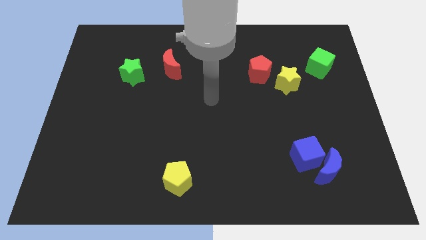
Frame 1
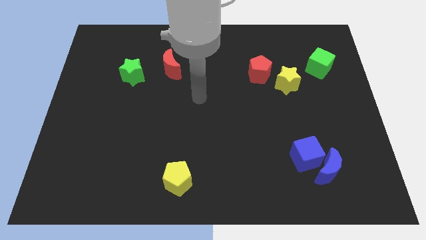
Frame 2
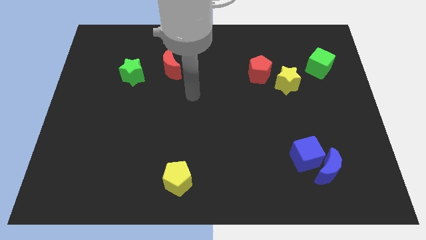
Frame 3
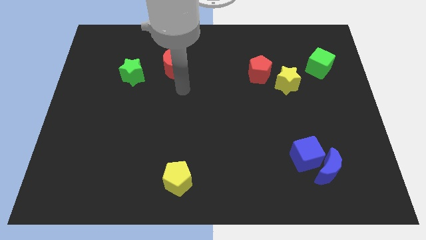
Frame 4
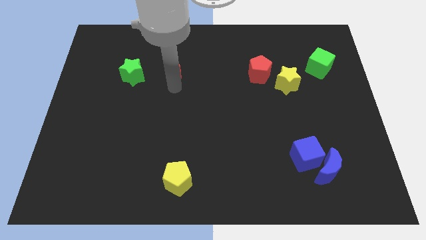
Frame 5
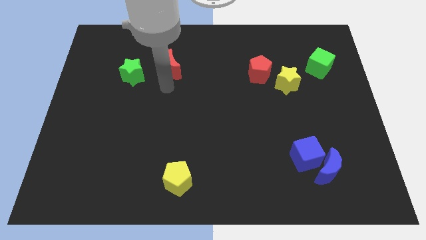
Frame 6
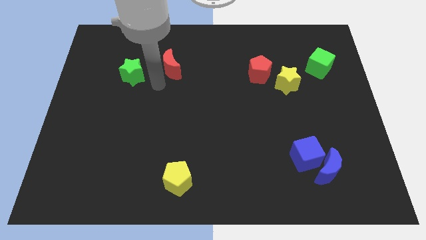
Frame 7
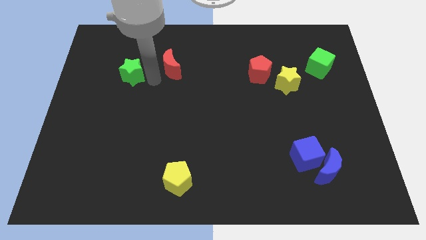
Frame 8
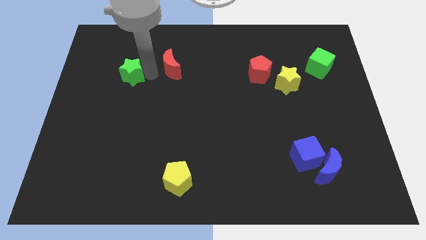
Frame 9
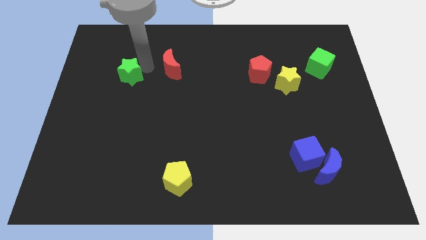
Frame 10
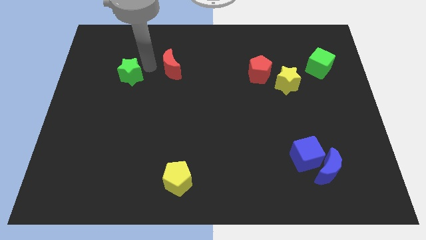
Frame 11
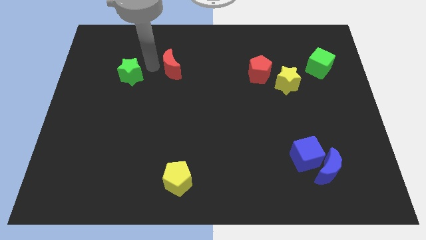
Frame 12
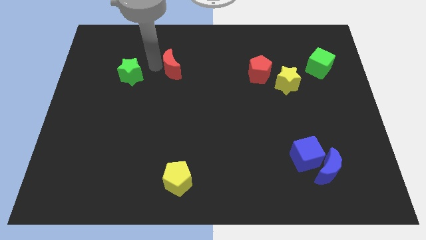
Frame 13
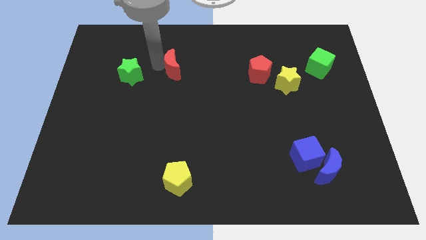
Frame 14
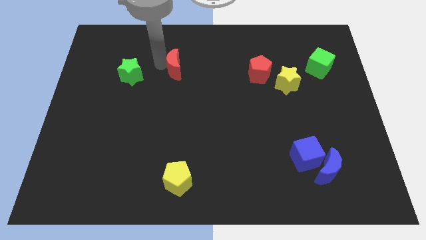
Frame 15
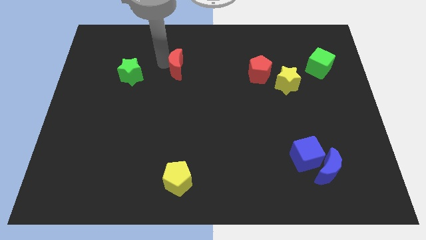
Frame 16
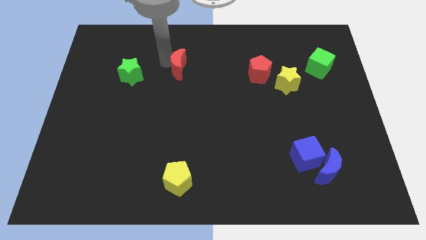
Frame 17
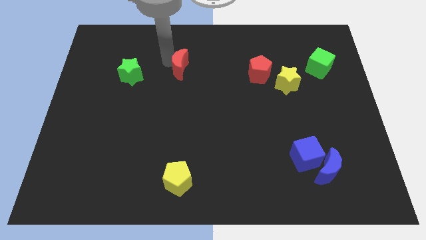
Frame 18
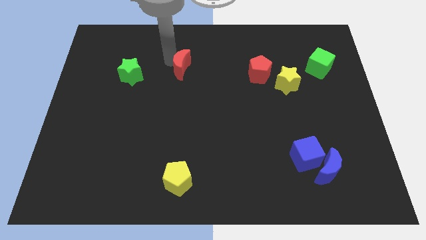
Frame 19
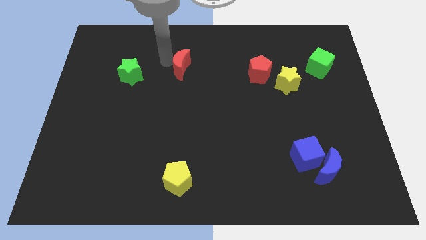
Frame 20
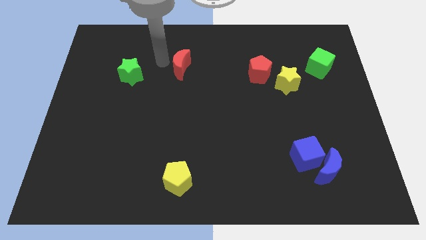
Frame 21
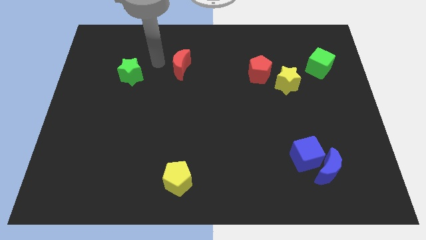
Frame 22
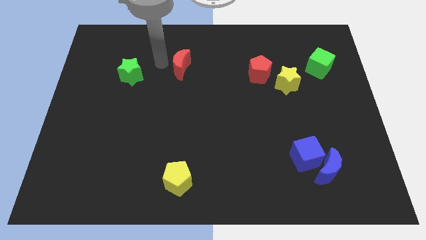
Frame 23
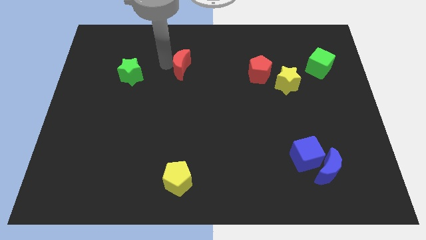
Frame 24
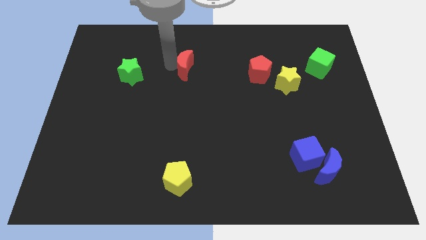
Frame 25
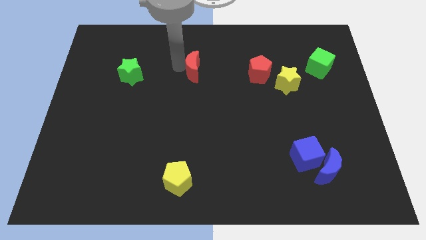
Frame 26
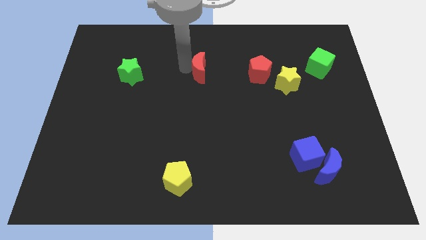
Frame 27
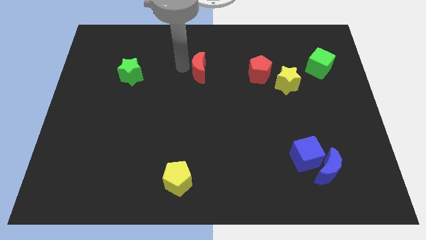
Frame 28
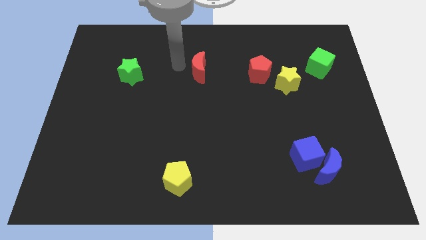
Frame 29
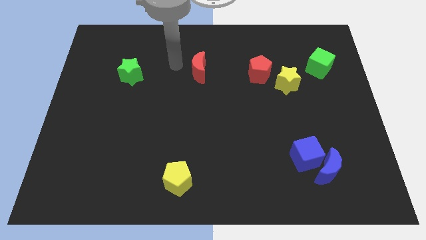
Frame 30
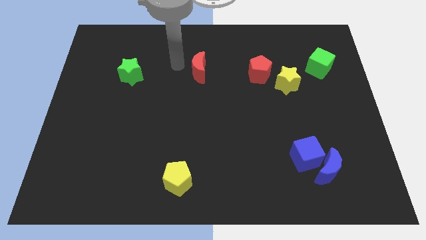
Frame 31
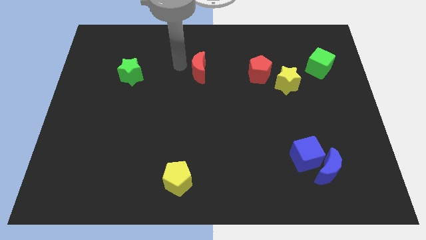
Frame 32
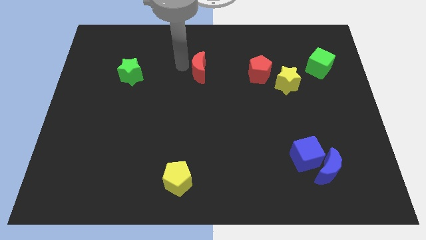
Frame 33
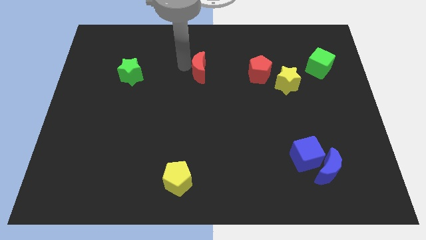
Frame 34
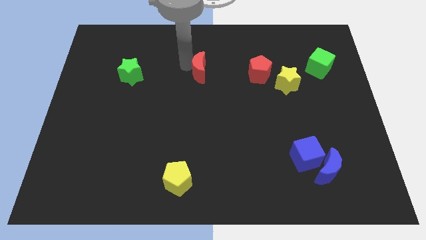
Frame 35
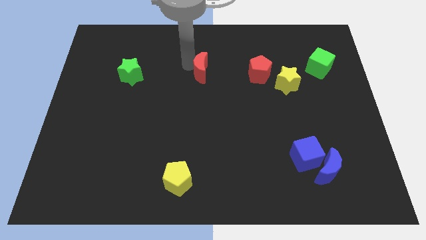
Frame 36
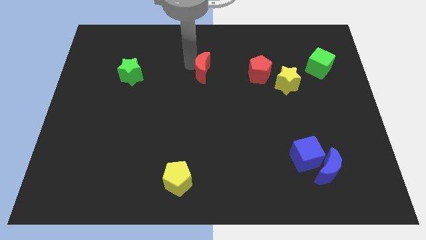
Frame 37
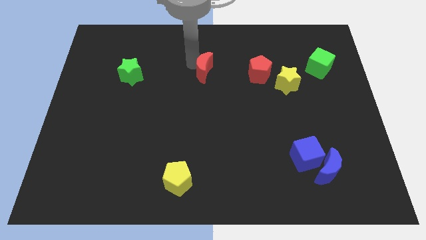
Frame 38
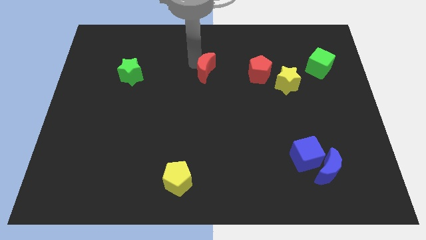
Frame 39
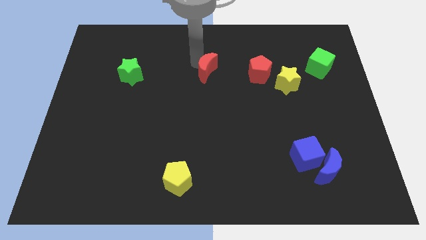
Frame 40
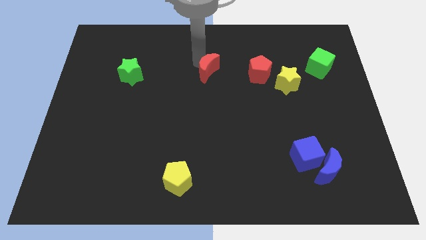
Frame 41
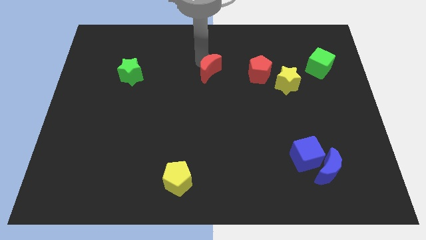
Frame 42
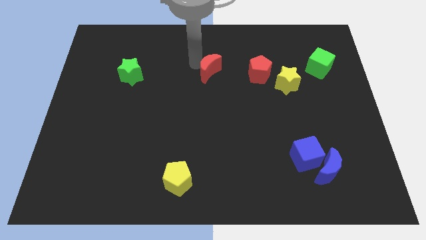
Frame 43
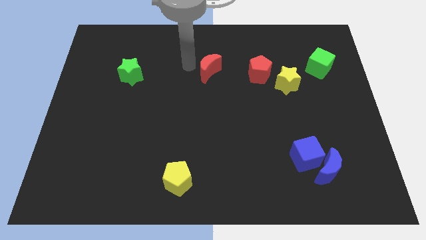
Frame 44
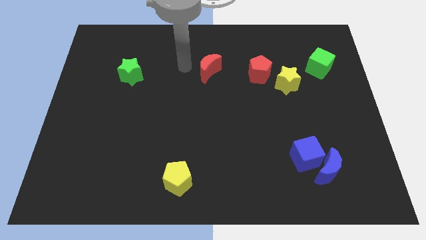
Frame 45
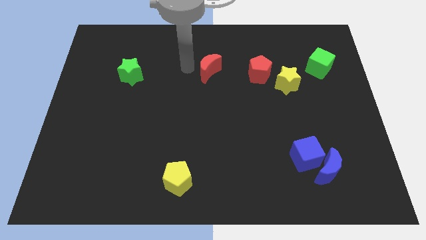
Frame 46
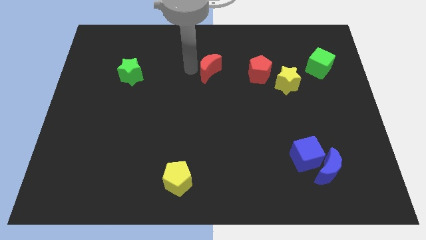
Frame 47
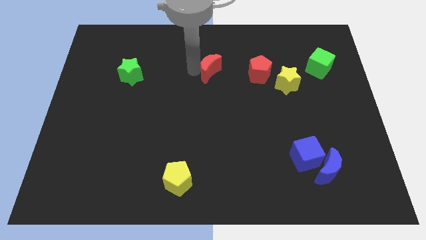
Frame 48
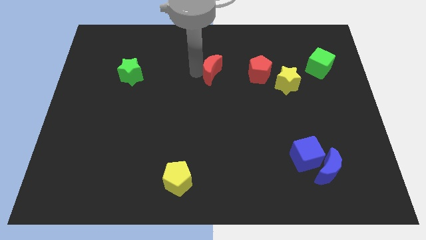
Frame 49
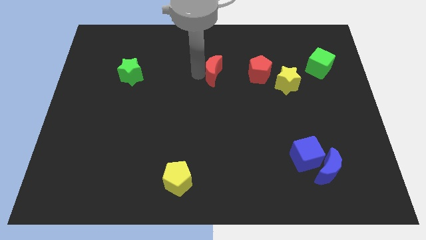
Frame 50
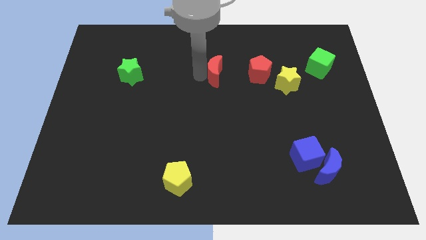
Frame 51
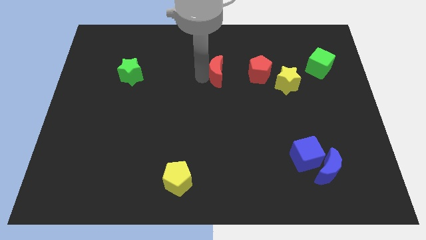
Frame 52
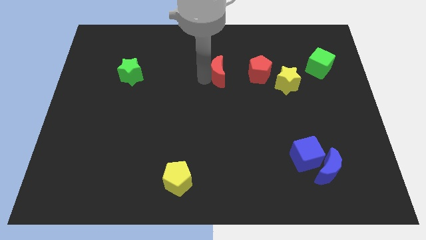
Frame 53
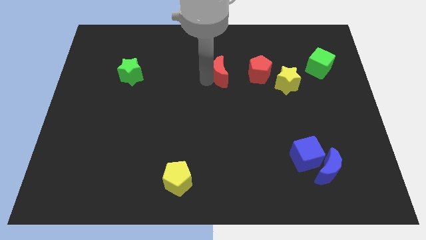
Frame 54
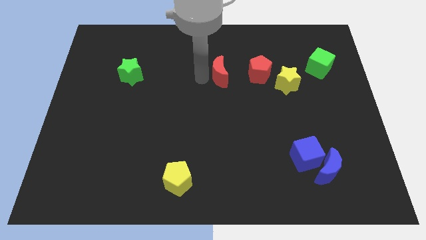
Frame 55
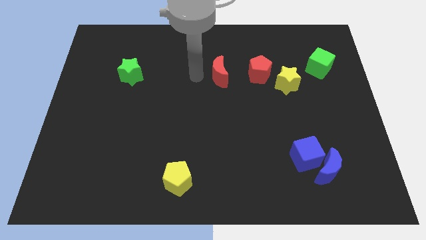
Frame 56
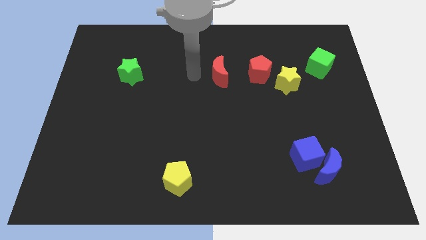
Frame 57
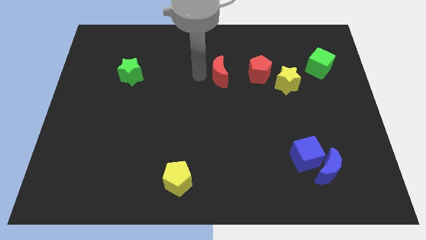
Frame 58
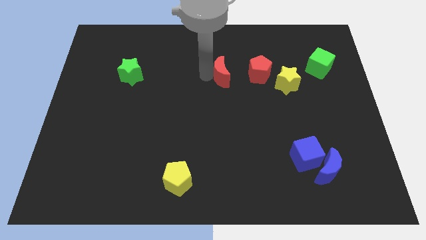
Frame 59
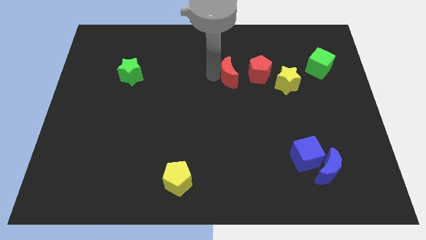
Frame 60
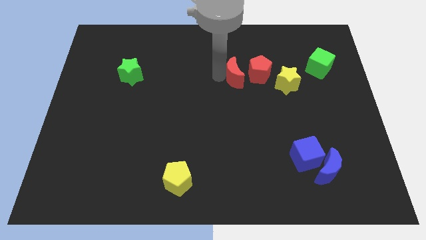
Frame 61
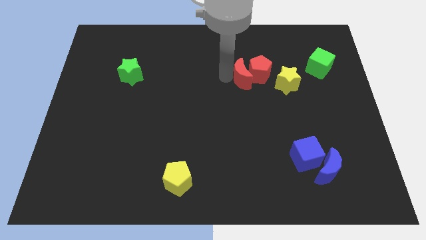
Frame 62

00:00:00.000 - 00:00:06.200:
put the red moon to the red pentagon

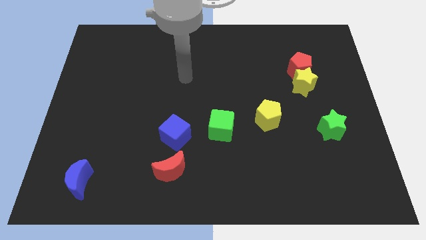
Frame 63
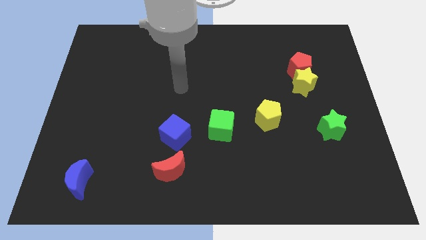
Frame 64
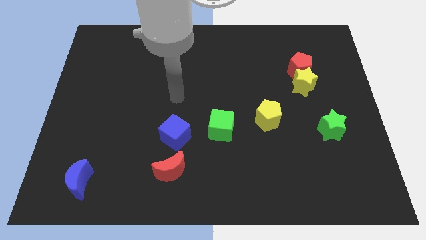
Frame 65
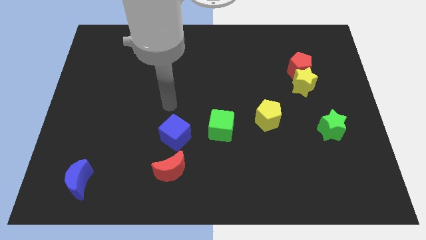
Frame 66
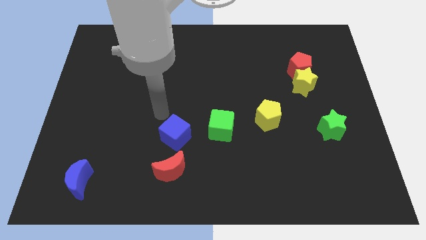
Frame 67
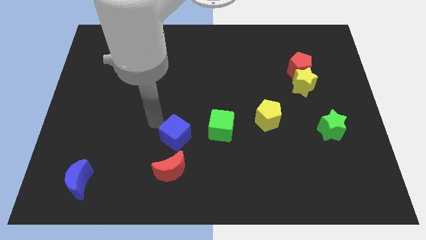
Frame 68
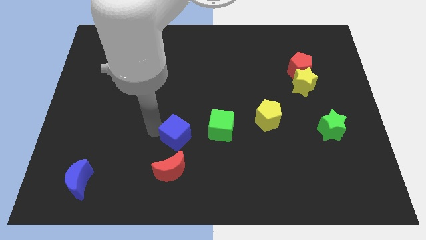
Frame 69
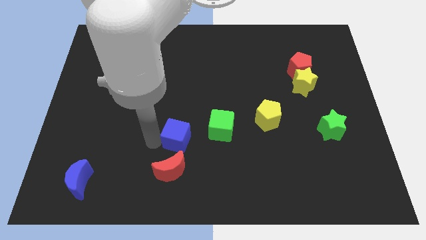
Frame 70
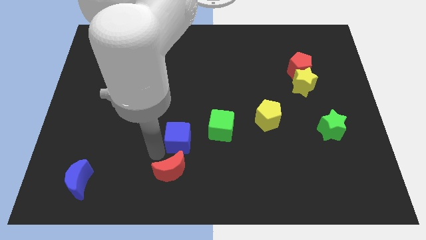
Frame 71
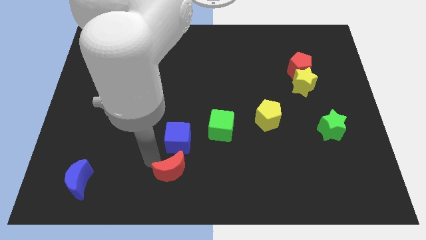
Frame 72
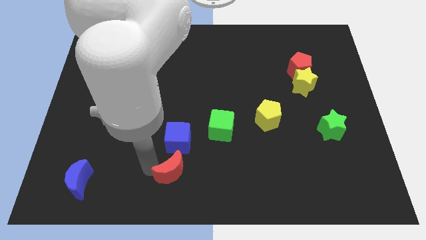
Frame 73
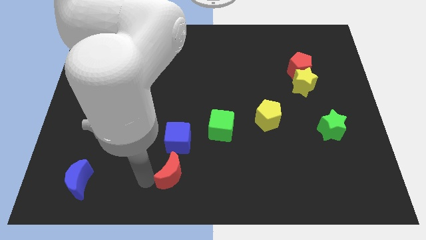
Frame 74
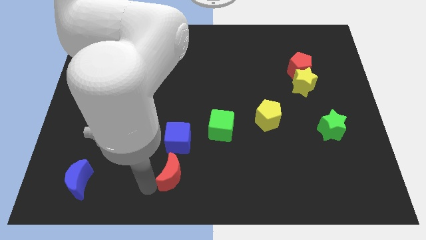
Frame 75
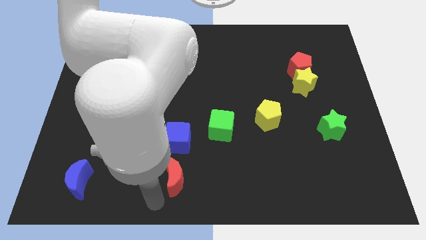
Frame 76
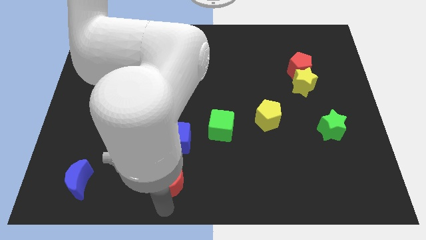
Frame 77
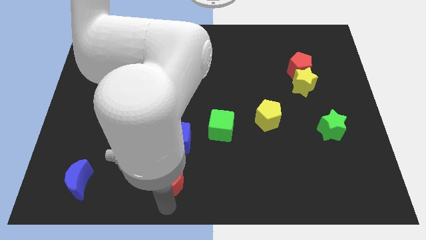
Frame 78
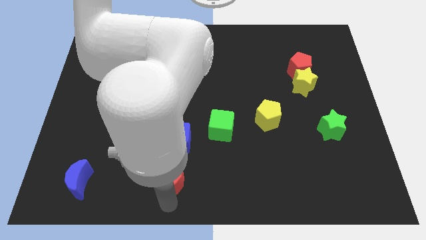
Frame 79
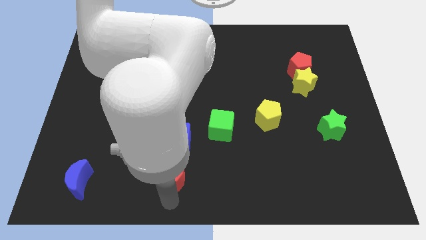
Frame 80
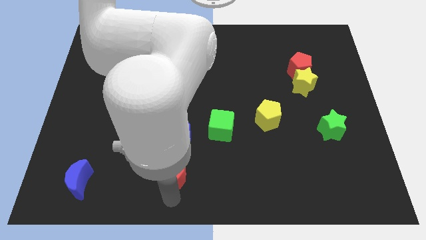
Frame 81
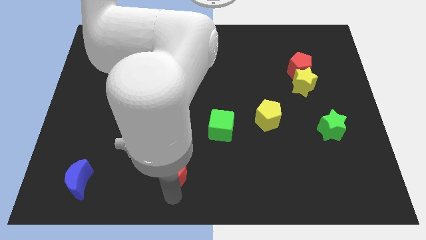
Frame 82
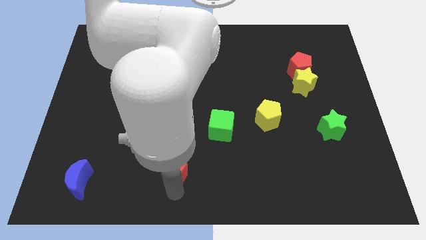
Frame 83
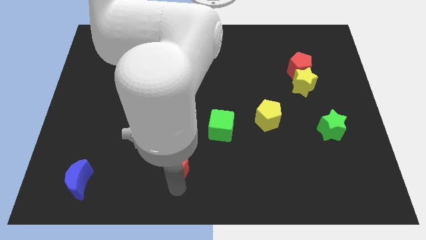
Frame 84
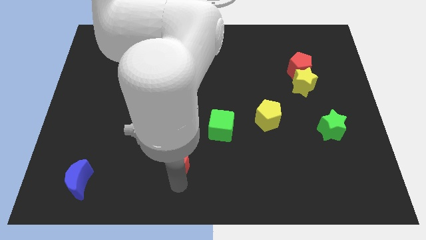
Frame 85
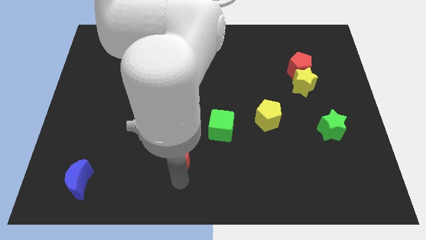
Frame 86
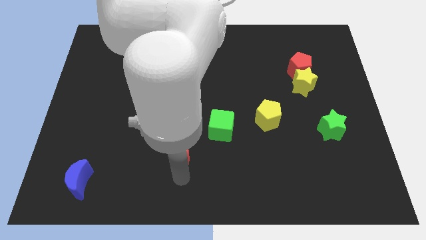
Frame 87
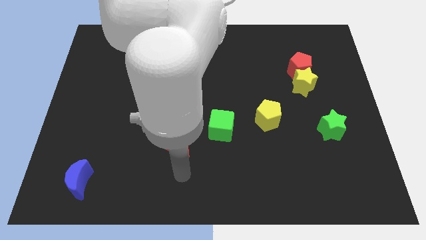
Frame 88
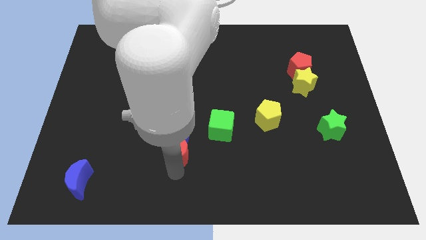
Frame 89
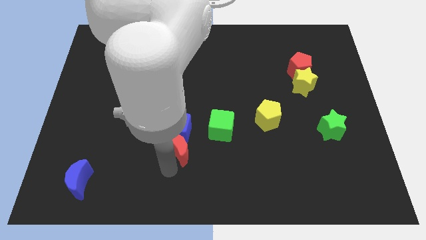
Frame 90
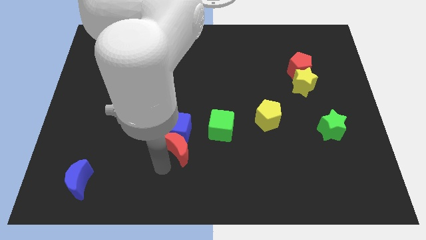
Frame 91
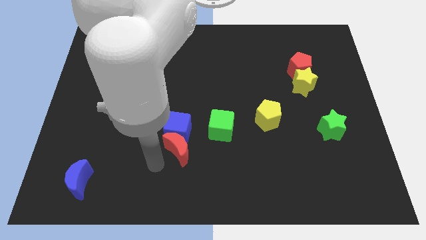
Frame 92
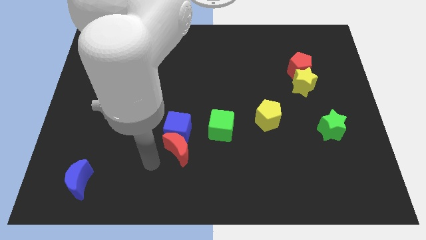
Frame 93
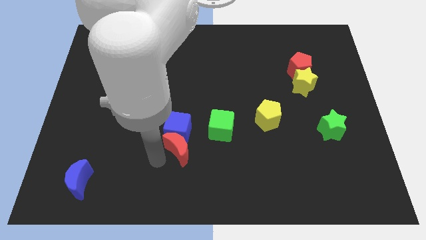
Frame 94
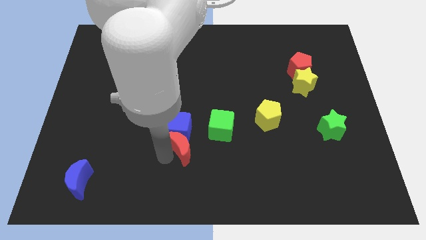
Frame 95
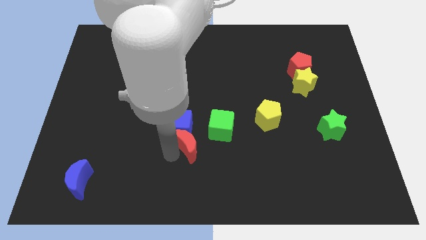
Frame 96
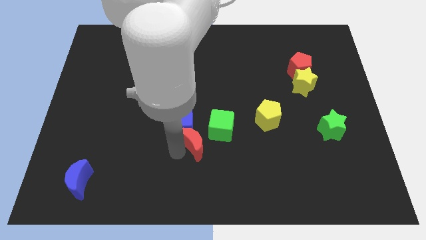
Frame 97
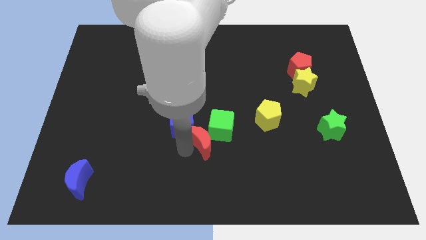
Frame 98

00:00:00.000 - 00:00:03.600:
put the red moon towards the green cube
